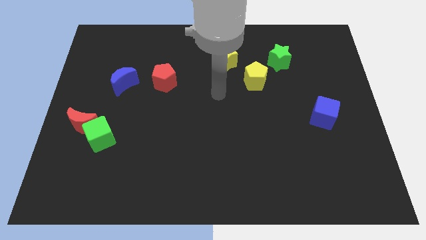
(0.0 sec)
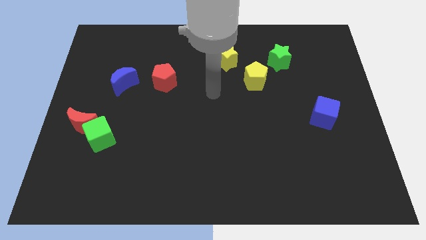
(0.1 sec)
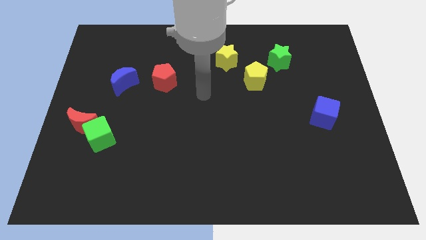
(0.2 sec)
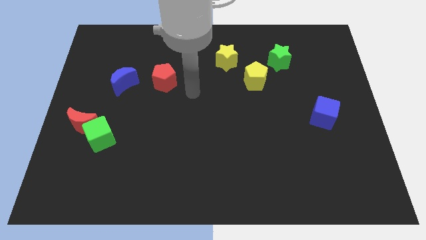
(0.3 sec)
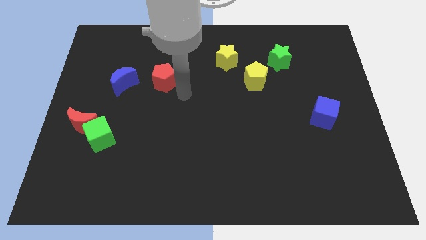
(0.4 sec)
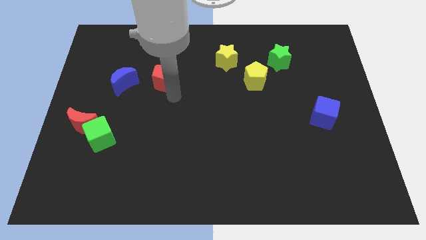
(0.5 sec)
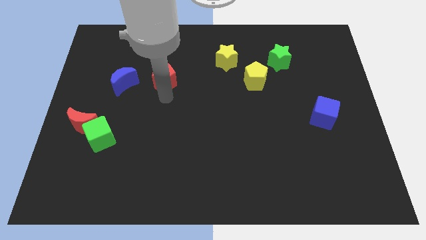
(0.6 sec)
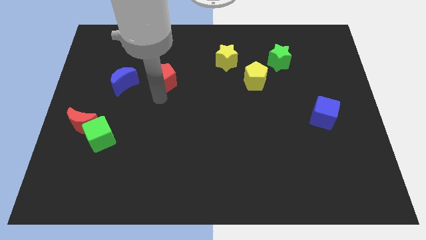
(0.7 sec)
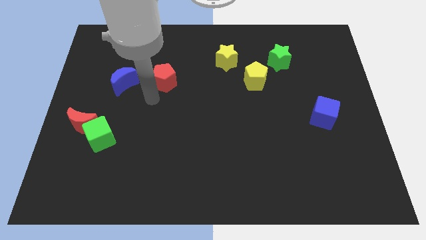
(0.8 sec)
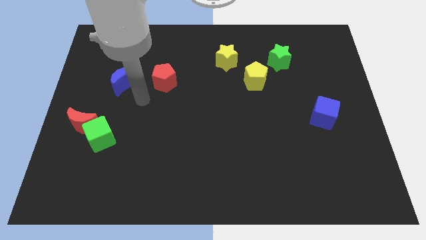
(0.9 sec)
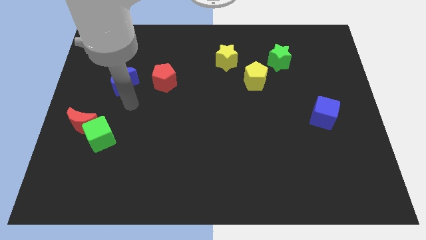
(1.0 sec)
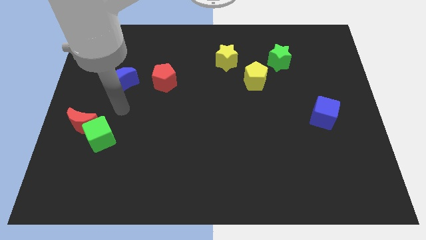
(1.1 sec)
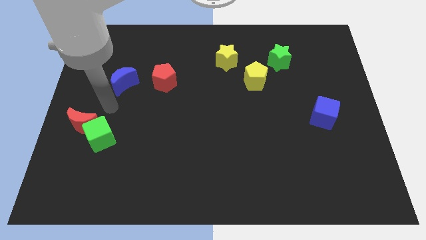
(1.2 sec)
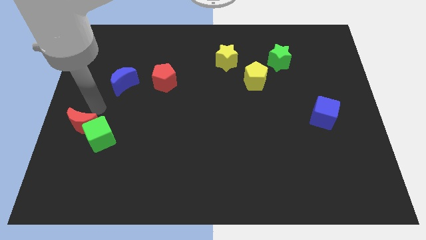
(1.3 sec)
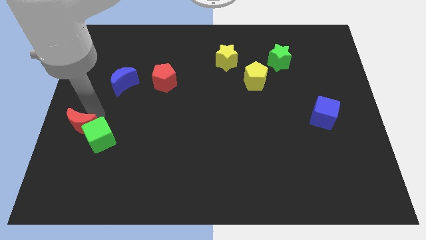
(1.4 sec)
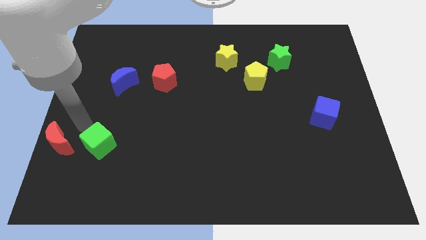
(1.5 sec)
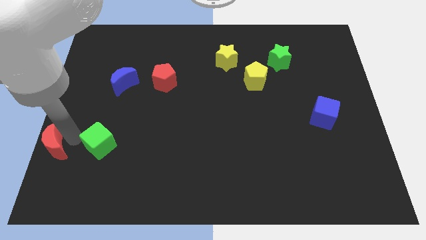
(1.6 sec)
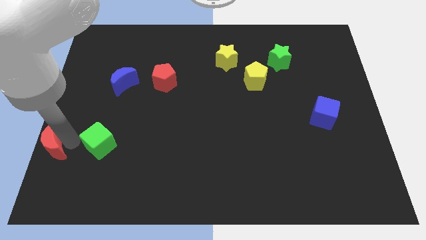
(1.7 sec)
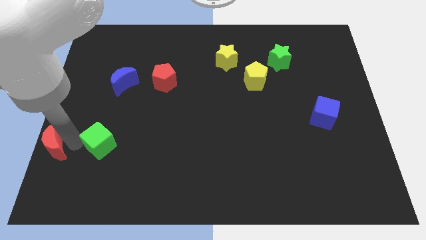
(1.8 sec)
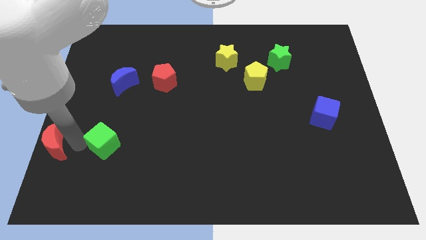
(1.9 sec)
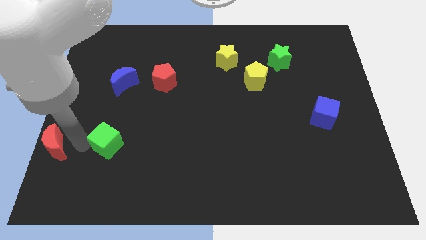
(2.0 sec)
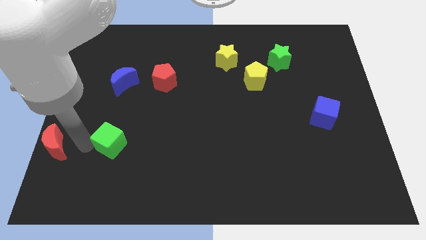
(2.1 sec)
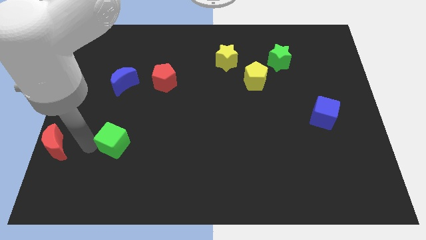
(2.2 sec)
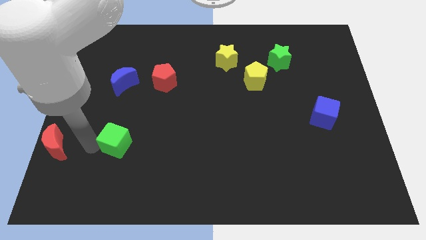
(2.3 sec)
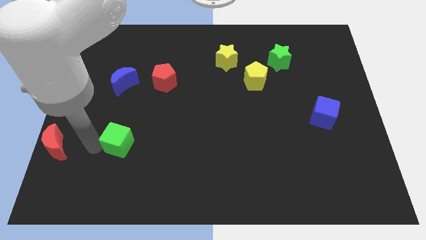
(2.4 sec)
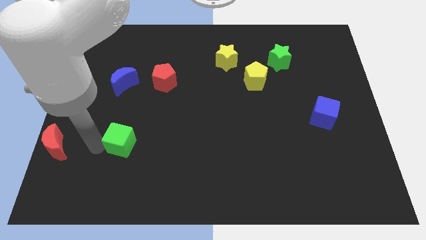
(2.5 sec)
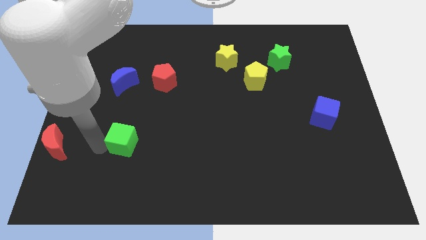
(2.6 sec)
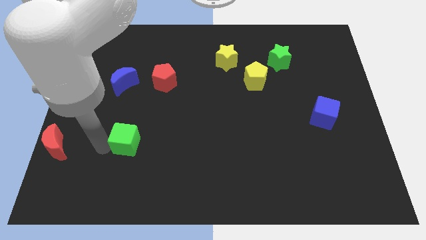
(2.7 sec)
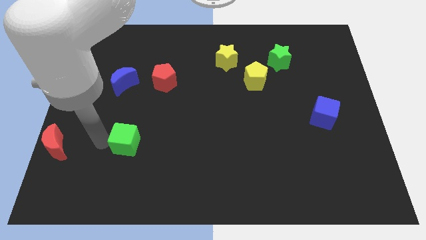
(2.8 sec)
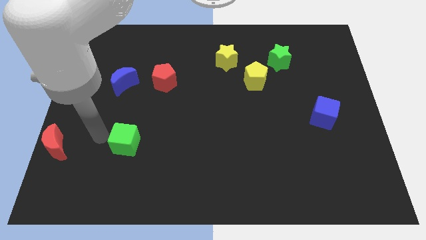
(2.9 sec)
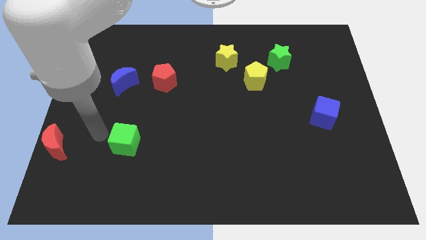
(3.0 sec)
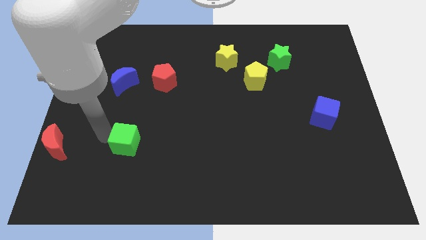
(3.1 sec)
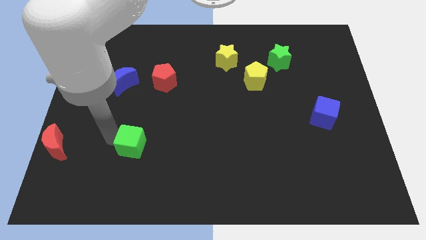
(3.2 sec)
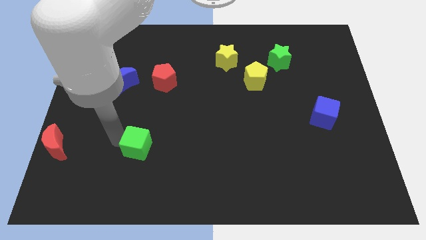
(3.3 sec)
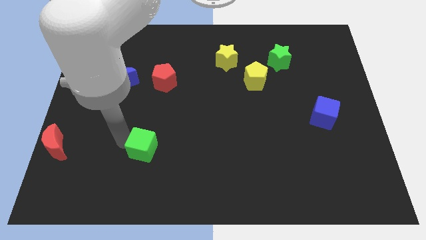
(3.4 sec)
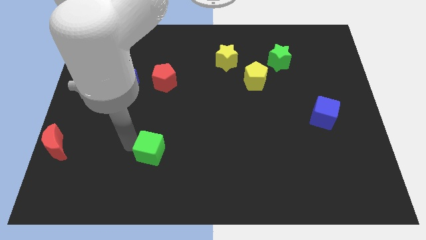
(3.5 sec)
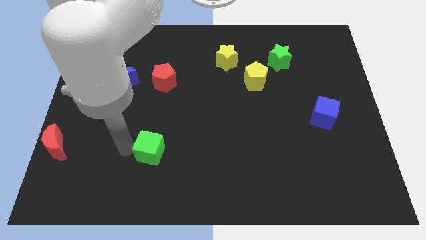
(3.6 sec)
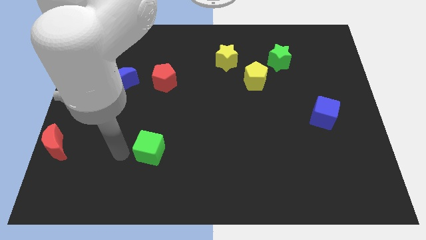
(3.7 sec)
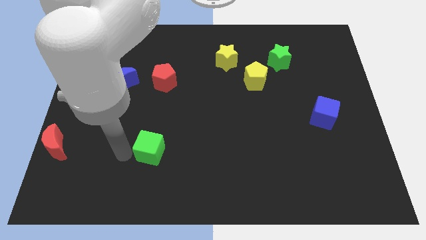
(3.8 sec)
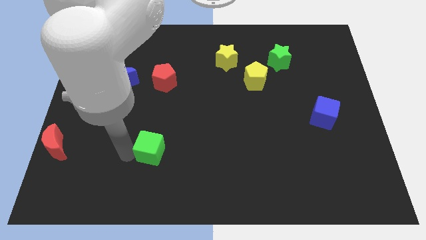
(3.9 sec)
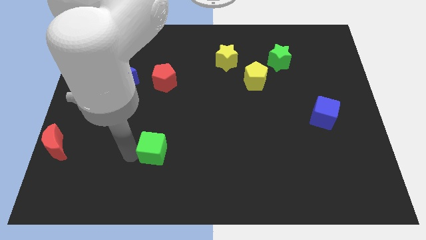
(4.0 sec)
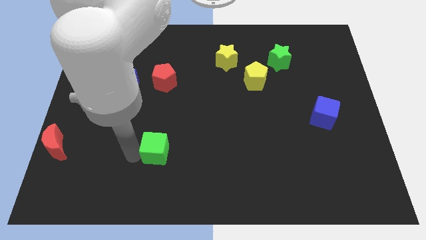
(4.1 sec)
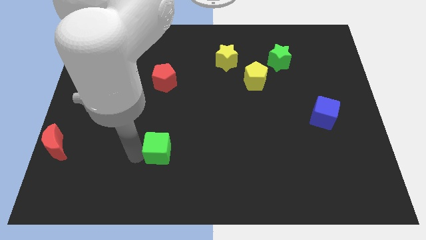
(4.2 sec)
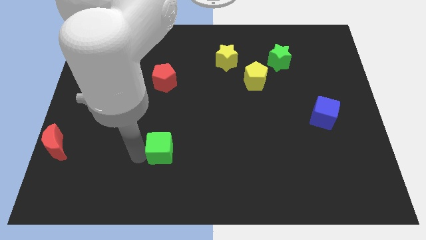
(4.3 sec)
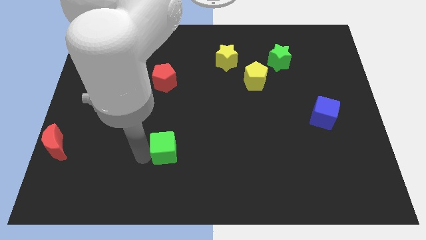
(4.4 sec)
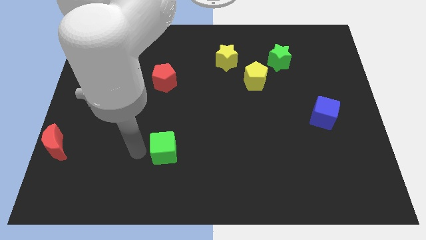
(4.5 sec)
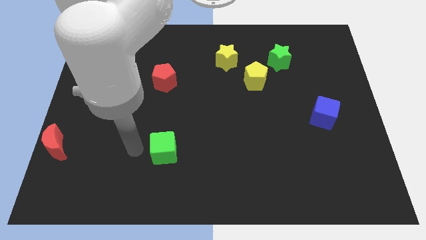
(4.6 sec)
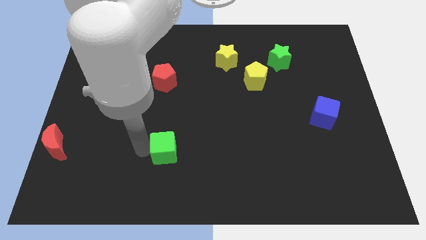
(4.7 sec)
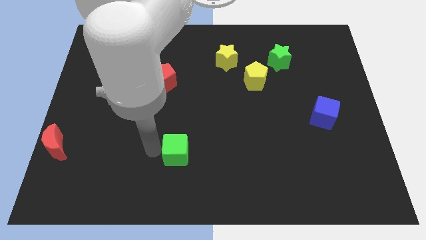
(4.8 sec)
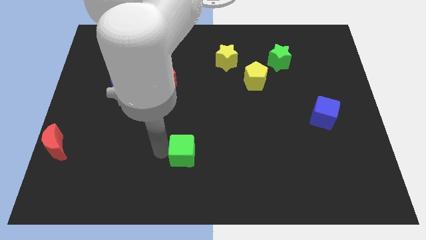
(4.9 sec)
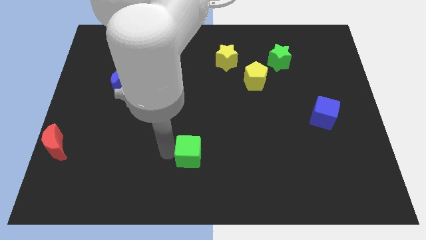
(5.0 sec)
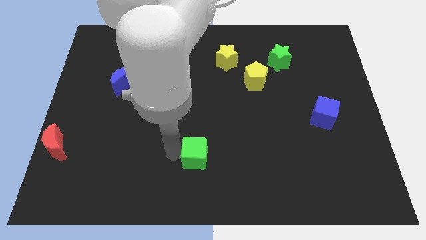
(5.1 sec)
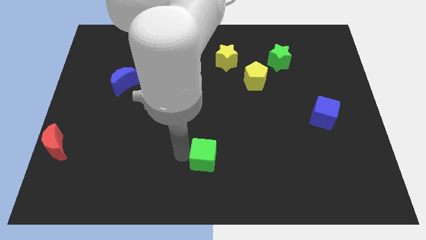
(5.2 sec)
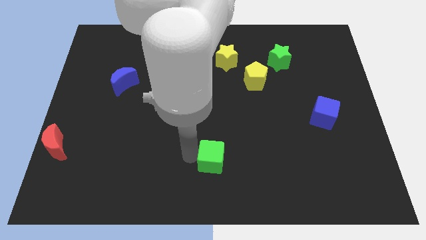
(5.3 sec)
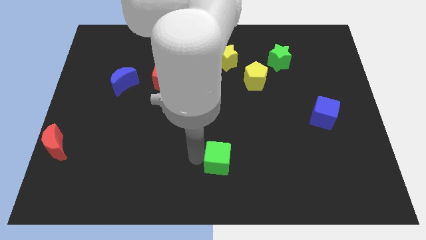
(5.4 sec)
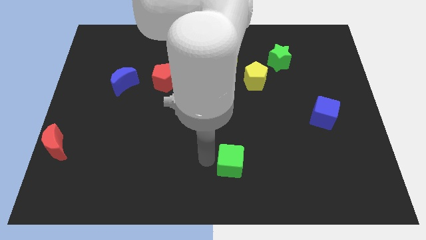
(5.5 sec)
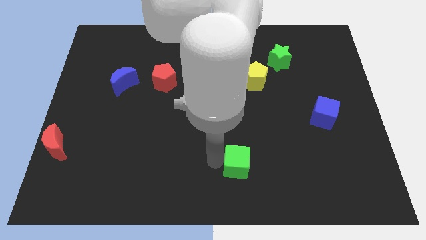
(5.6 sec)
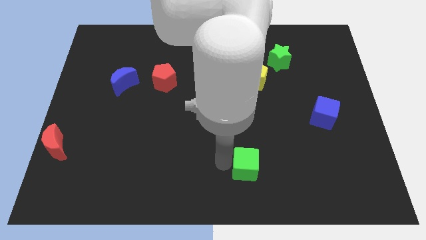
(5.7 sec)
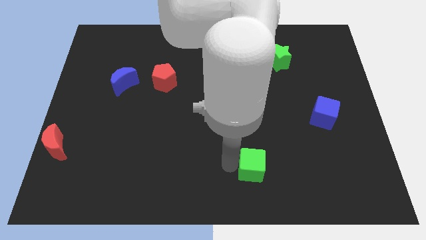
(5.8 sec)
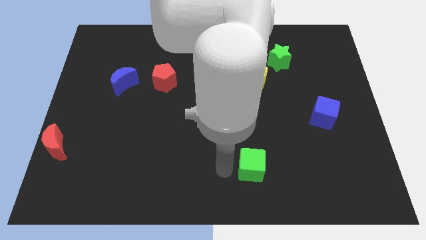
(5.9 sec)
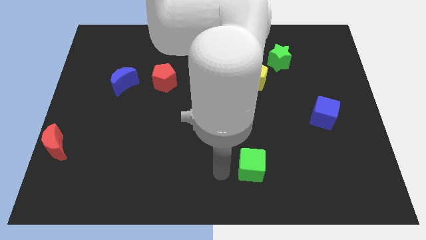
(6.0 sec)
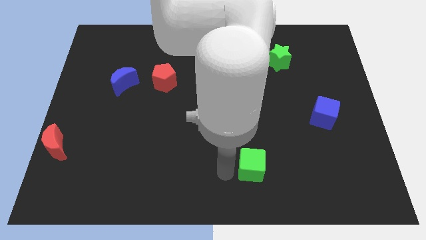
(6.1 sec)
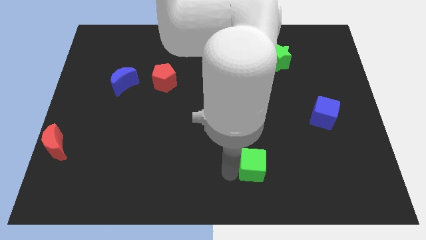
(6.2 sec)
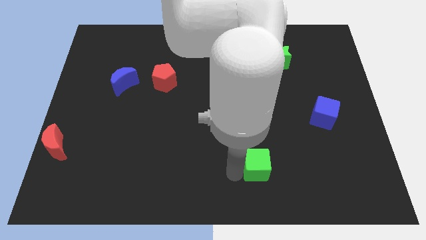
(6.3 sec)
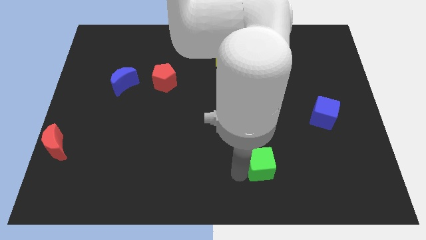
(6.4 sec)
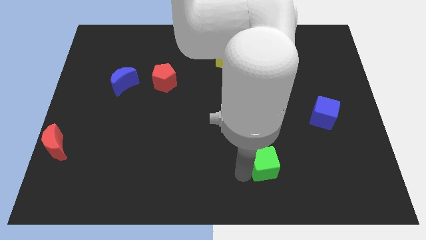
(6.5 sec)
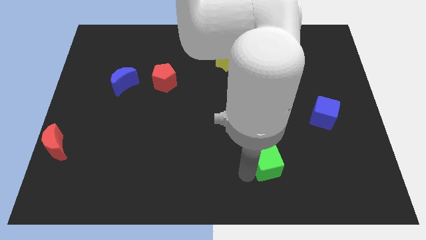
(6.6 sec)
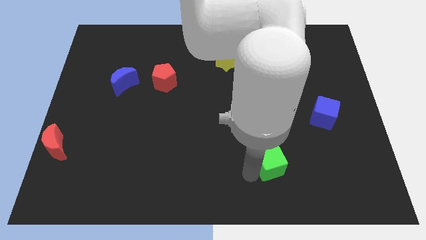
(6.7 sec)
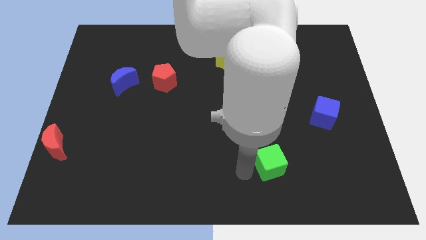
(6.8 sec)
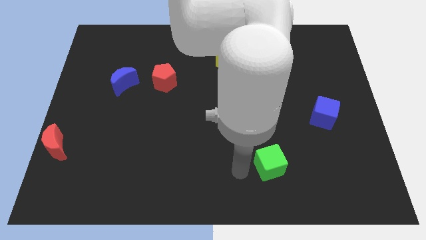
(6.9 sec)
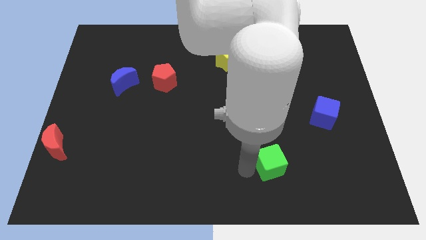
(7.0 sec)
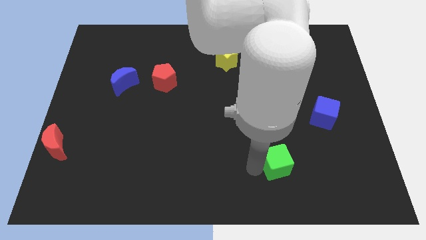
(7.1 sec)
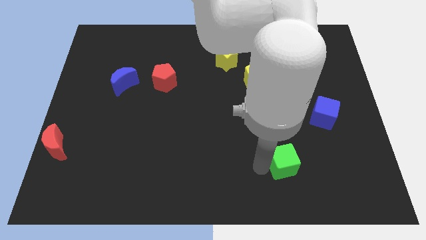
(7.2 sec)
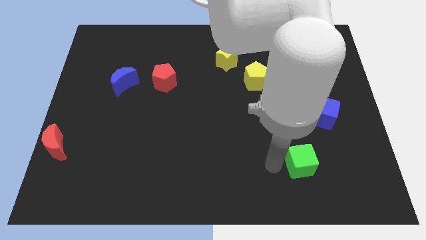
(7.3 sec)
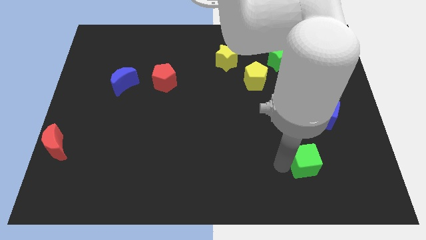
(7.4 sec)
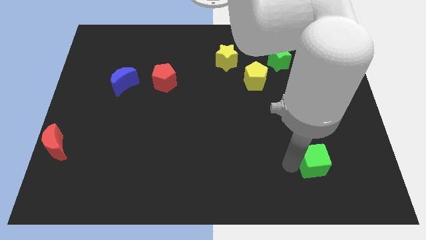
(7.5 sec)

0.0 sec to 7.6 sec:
put the green cube to the bottom side of the blue cube
